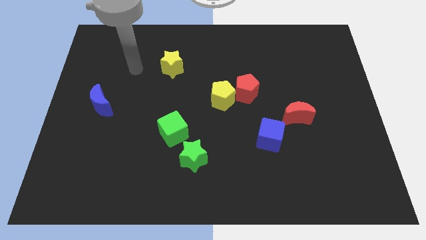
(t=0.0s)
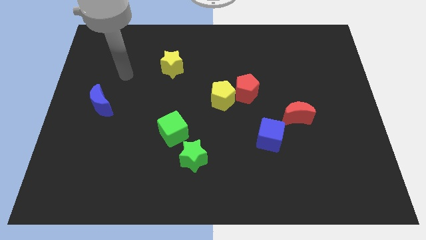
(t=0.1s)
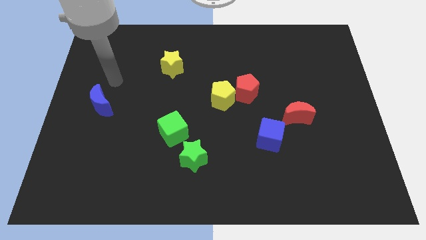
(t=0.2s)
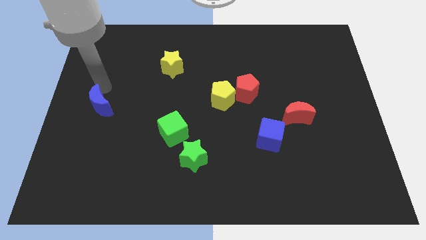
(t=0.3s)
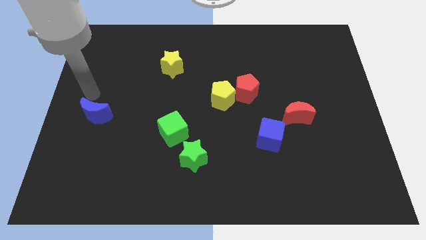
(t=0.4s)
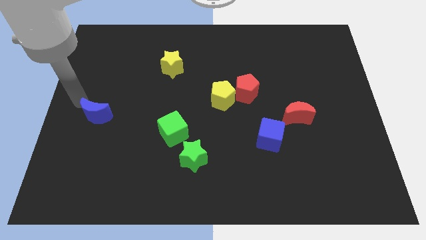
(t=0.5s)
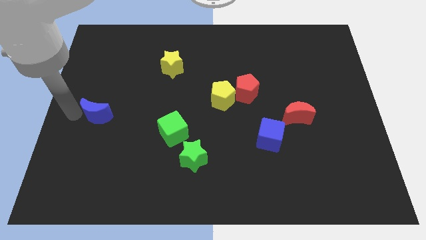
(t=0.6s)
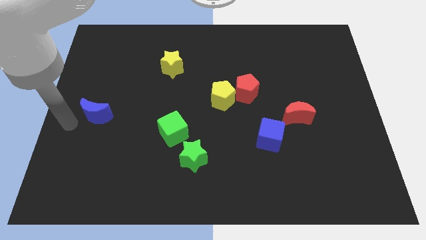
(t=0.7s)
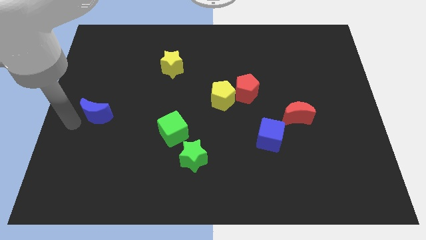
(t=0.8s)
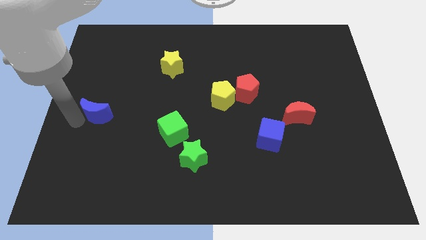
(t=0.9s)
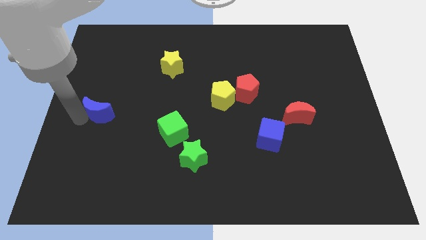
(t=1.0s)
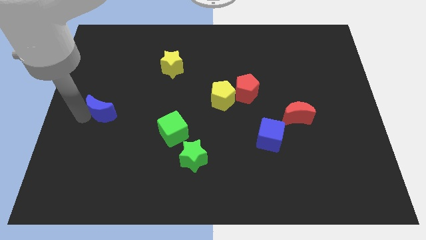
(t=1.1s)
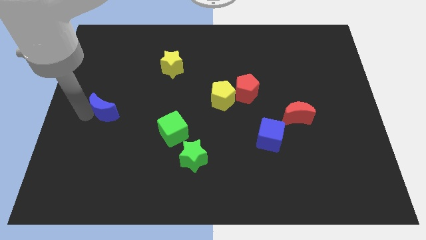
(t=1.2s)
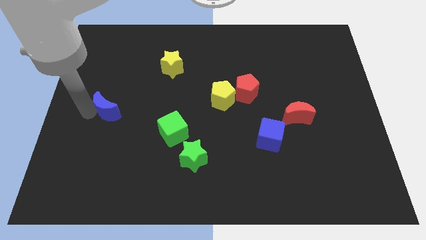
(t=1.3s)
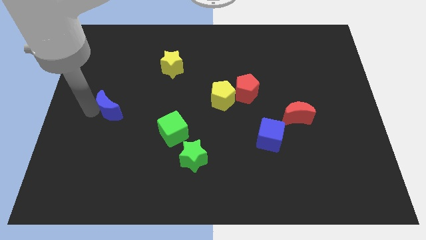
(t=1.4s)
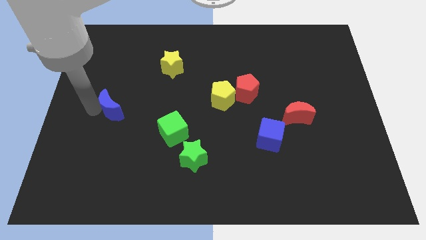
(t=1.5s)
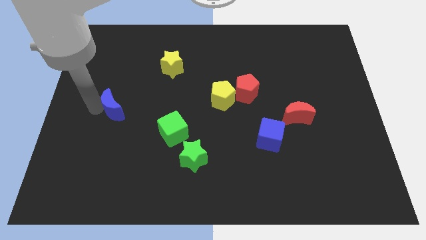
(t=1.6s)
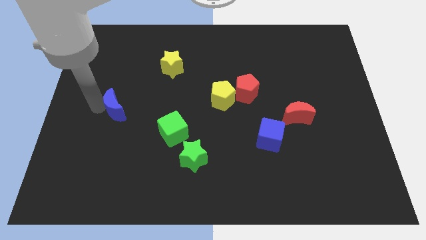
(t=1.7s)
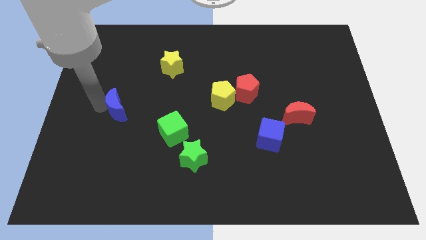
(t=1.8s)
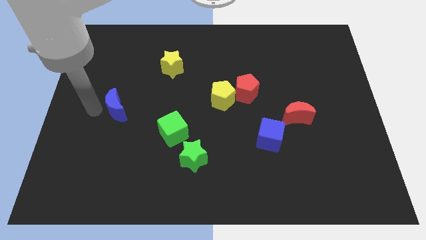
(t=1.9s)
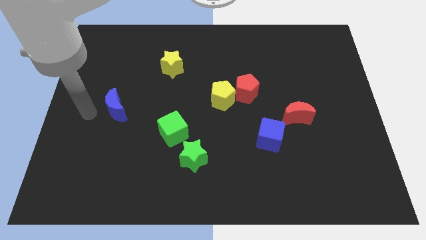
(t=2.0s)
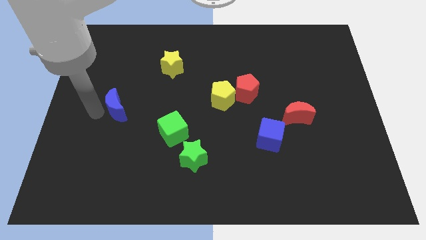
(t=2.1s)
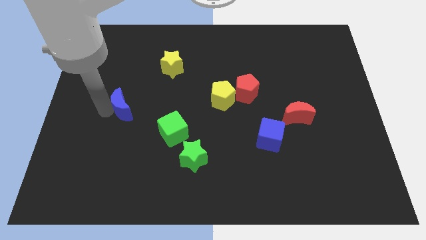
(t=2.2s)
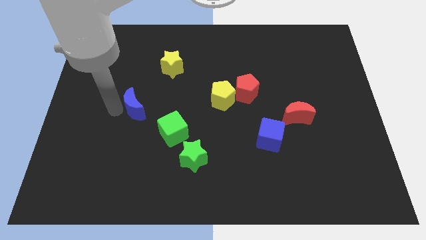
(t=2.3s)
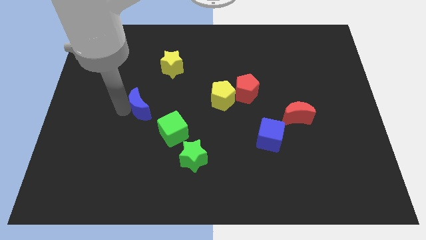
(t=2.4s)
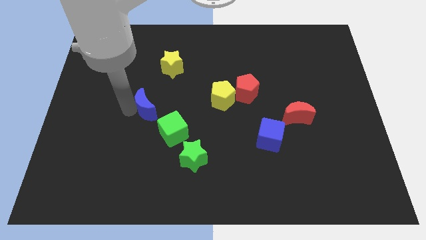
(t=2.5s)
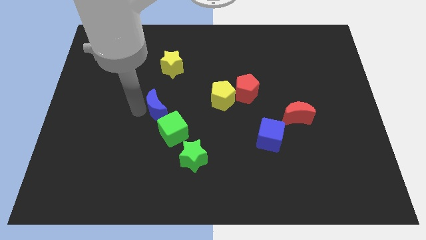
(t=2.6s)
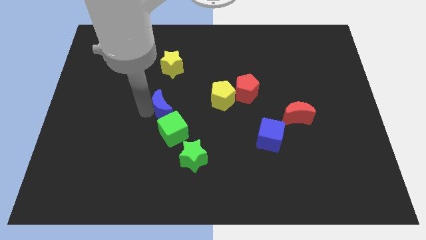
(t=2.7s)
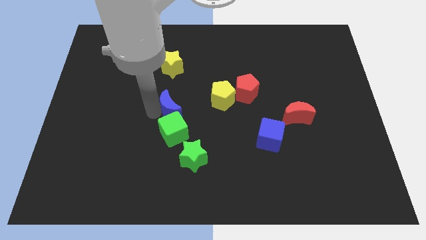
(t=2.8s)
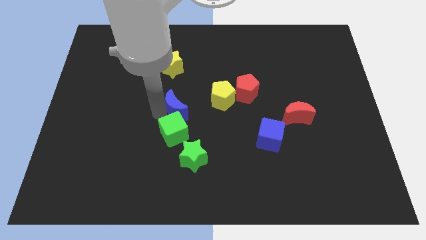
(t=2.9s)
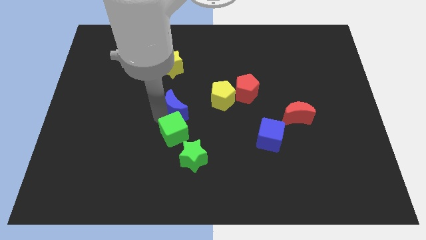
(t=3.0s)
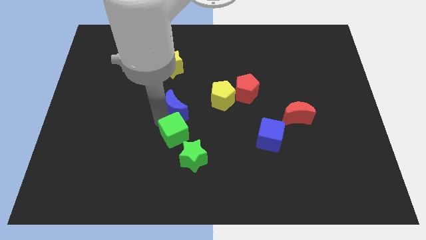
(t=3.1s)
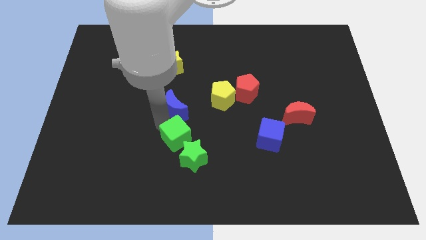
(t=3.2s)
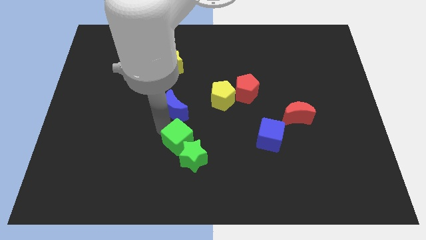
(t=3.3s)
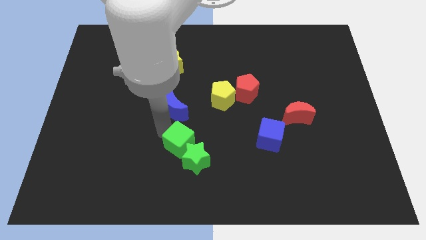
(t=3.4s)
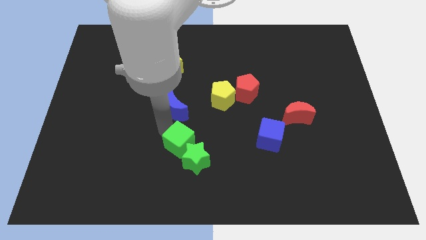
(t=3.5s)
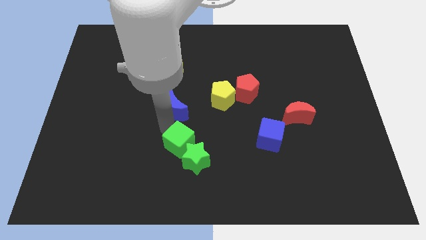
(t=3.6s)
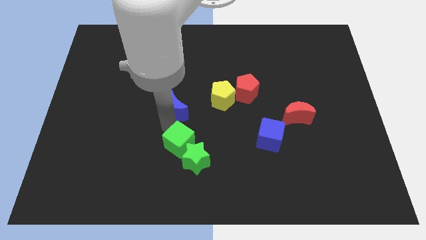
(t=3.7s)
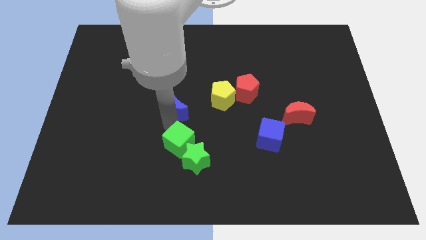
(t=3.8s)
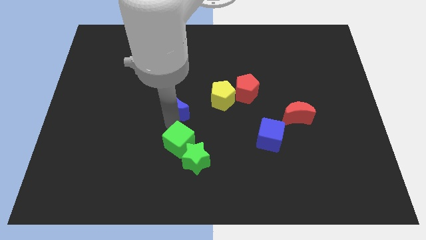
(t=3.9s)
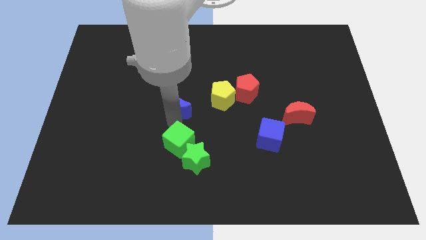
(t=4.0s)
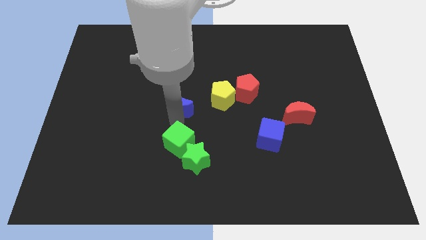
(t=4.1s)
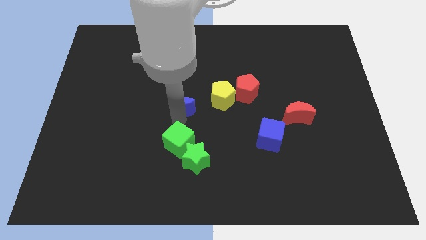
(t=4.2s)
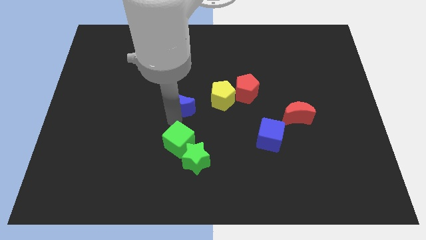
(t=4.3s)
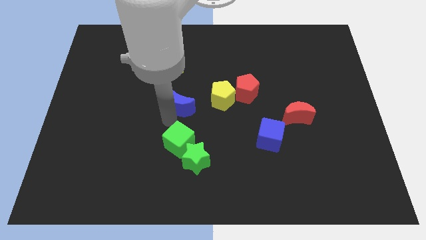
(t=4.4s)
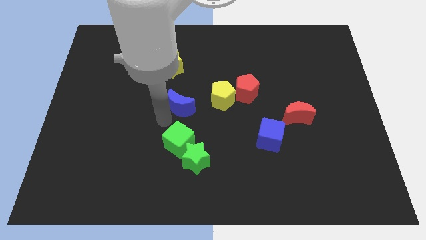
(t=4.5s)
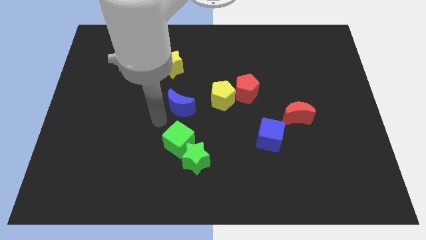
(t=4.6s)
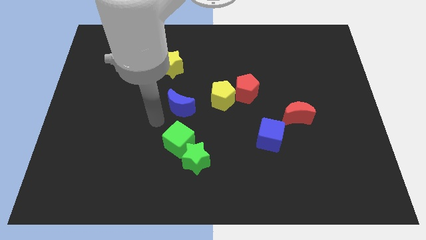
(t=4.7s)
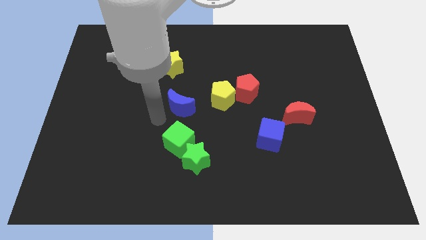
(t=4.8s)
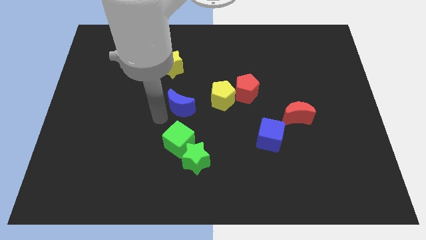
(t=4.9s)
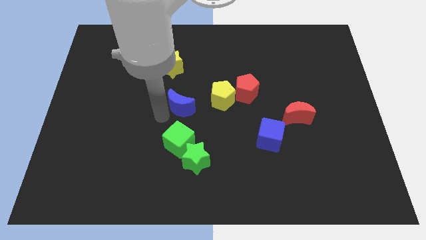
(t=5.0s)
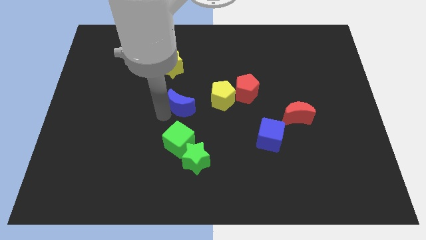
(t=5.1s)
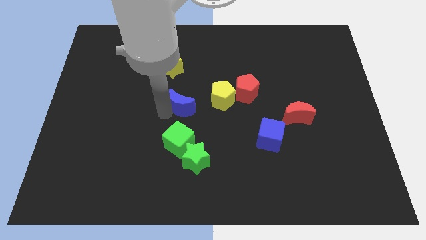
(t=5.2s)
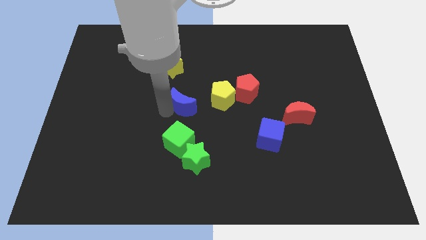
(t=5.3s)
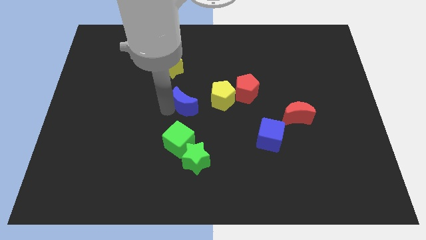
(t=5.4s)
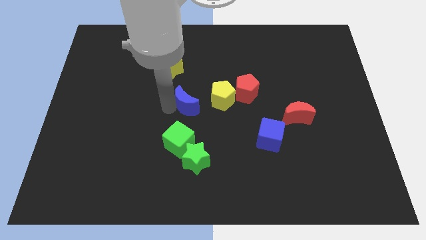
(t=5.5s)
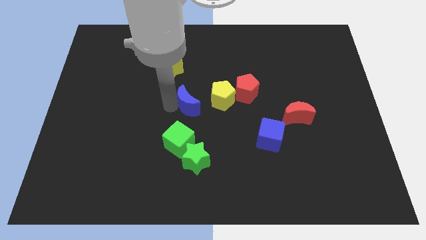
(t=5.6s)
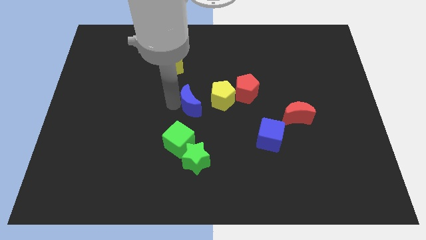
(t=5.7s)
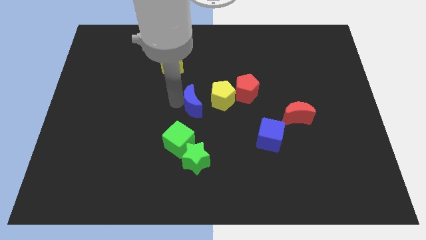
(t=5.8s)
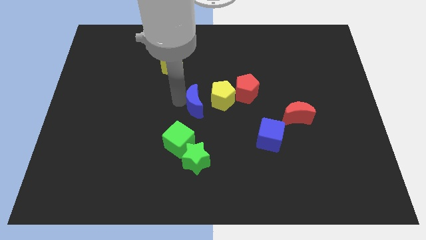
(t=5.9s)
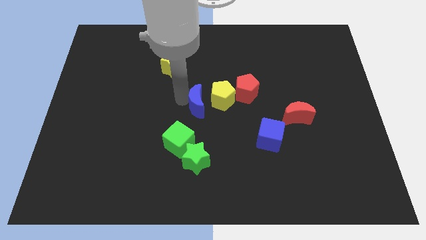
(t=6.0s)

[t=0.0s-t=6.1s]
move the blue moon next to the yellow pentagon

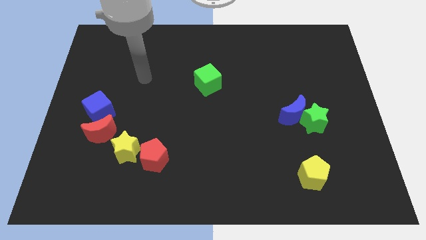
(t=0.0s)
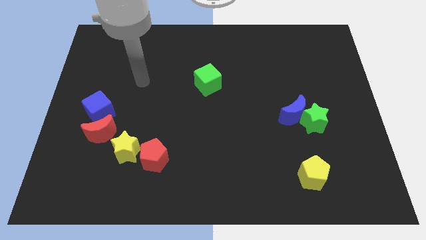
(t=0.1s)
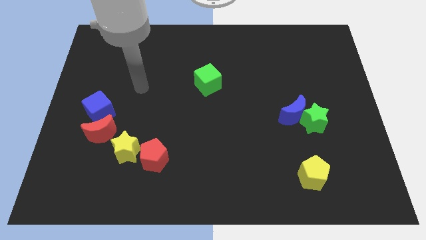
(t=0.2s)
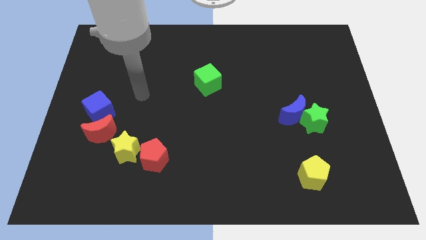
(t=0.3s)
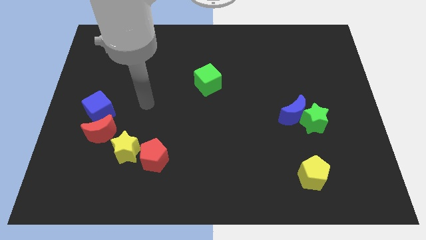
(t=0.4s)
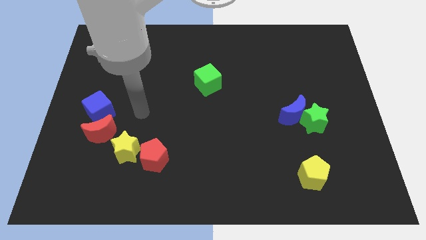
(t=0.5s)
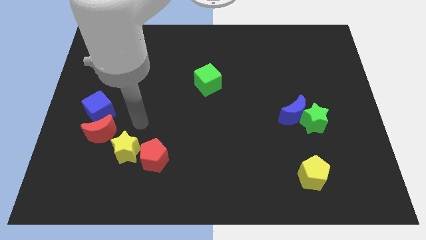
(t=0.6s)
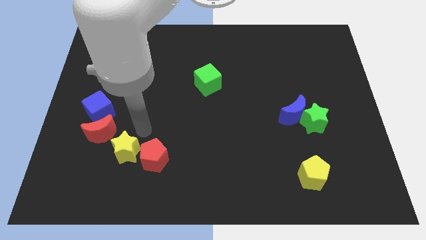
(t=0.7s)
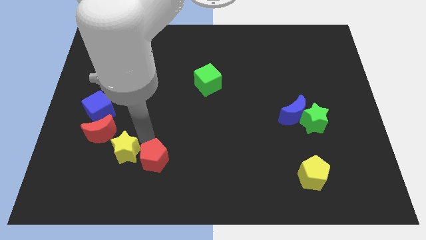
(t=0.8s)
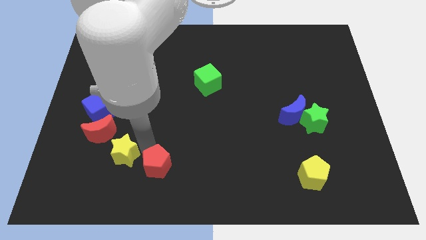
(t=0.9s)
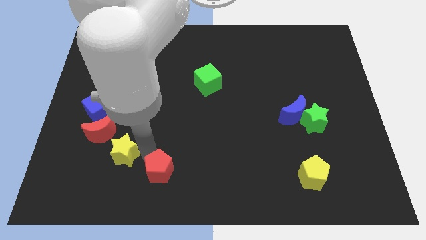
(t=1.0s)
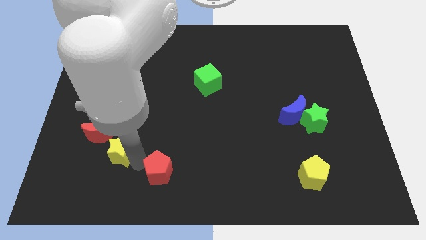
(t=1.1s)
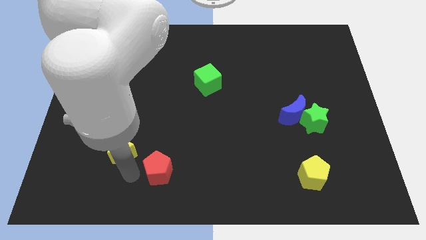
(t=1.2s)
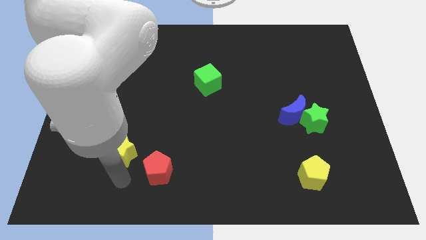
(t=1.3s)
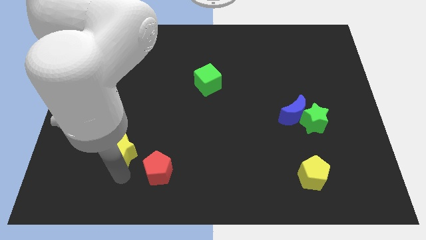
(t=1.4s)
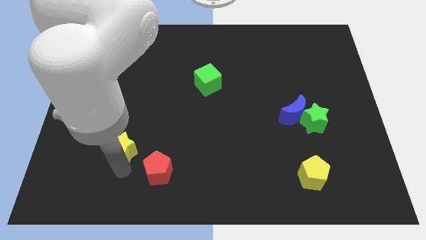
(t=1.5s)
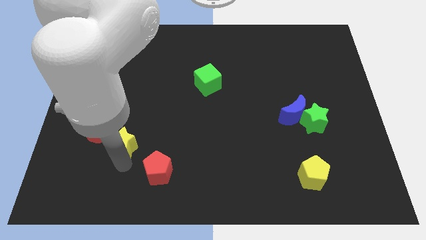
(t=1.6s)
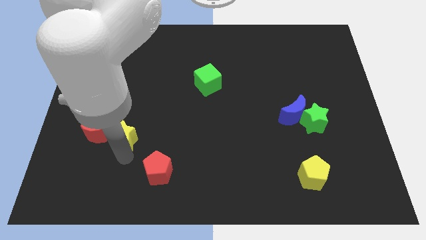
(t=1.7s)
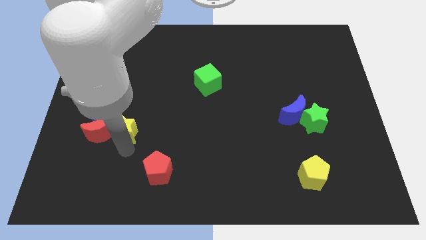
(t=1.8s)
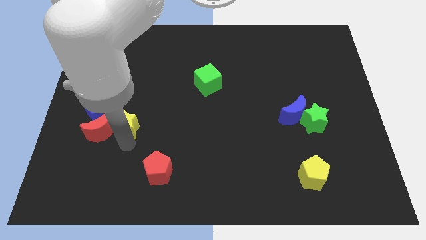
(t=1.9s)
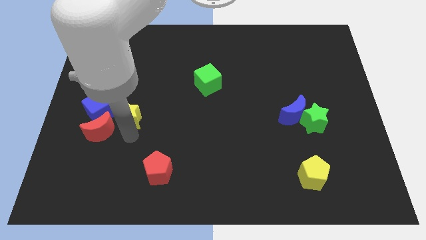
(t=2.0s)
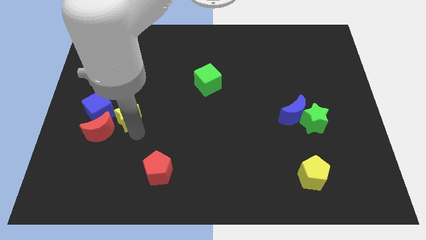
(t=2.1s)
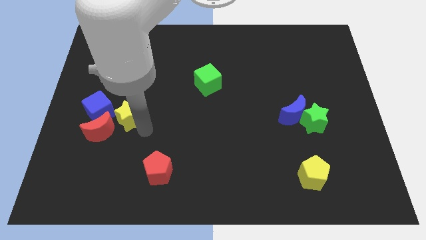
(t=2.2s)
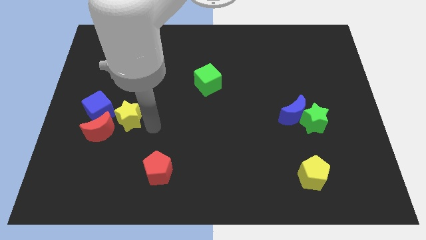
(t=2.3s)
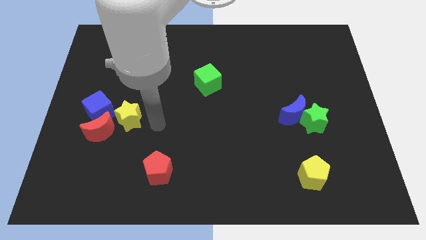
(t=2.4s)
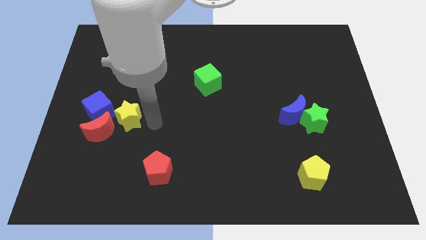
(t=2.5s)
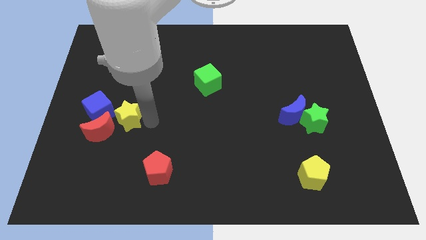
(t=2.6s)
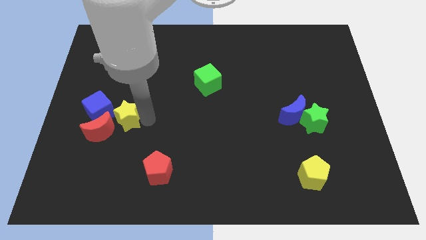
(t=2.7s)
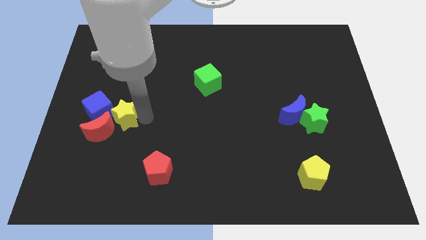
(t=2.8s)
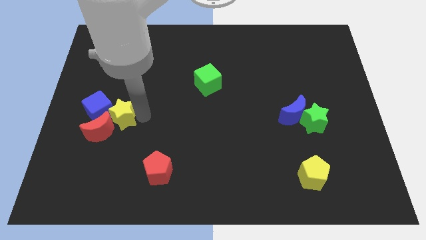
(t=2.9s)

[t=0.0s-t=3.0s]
push the yellow star to the blue cube
